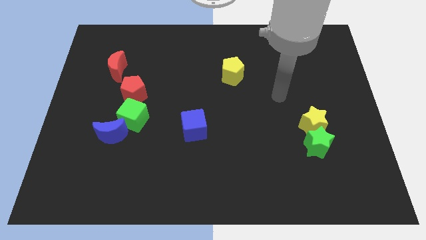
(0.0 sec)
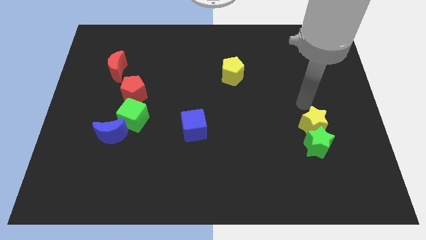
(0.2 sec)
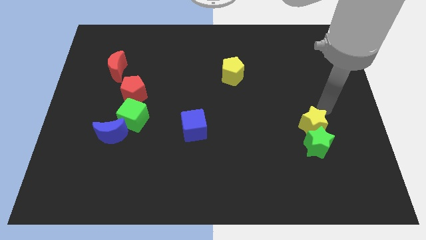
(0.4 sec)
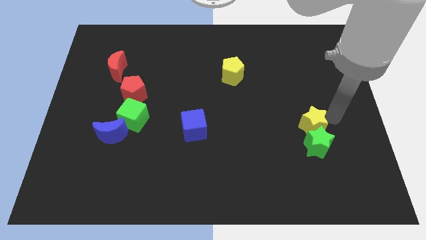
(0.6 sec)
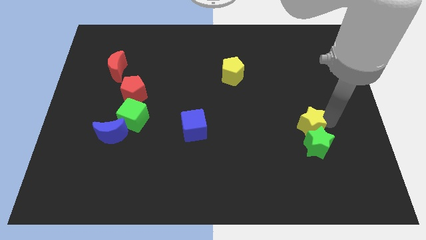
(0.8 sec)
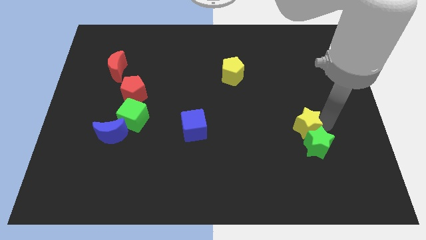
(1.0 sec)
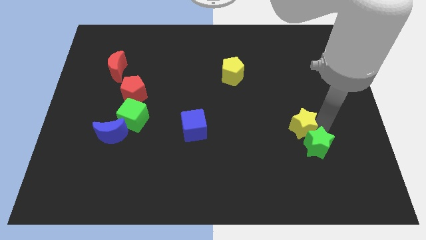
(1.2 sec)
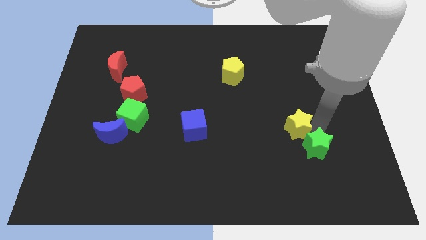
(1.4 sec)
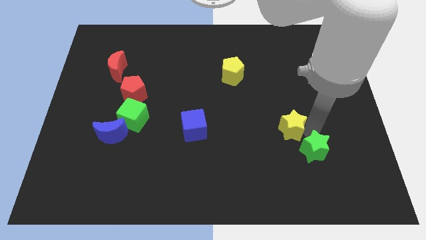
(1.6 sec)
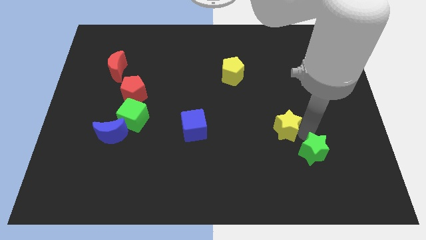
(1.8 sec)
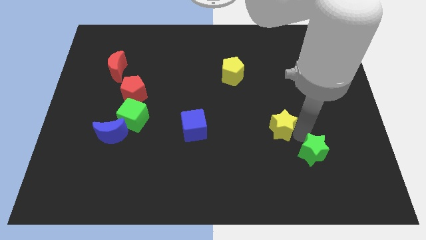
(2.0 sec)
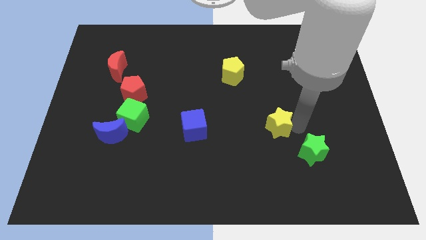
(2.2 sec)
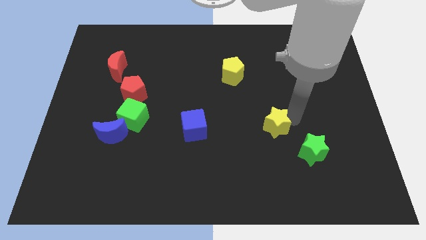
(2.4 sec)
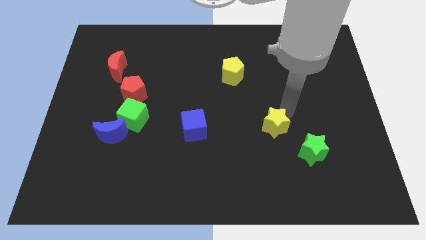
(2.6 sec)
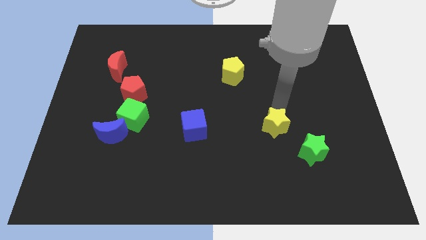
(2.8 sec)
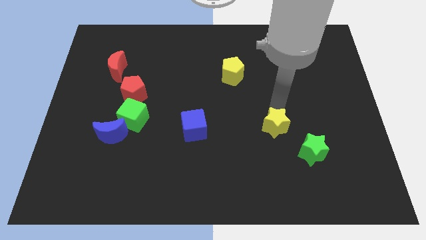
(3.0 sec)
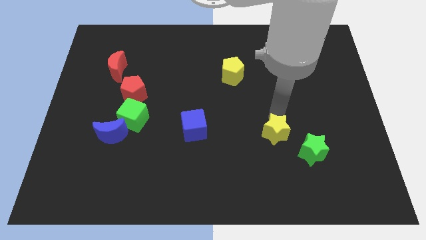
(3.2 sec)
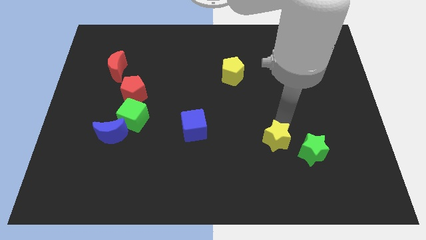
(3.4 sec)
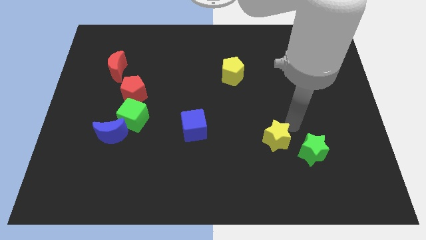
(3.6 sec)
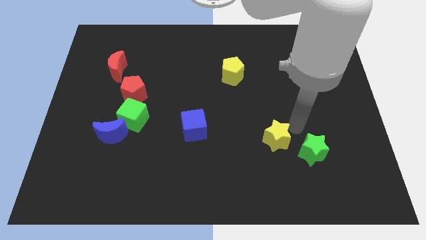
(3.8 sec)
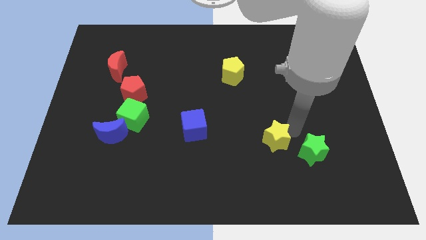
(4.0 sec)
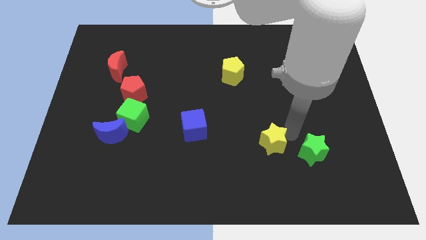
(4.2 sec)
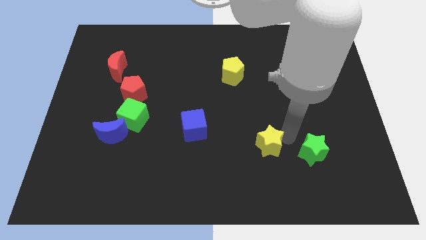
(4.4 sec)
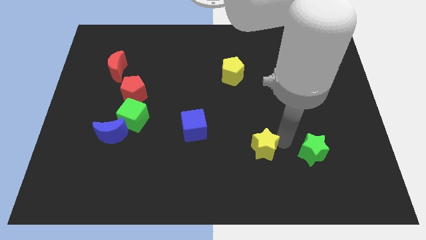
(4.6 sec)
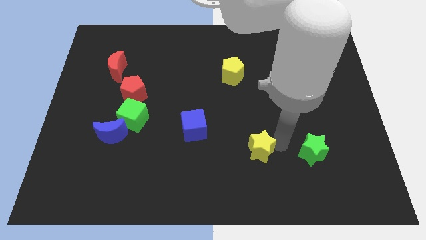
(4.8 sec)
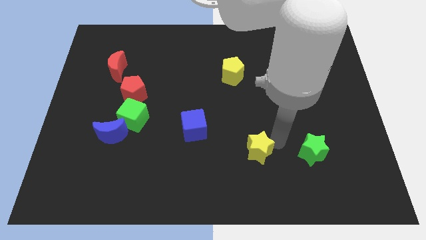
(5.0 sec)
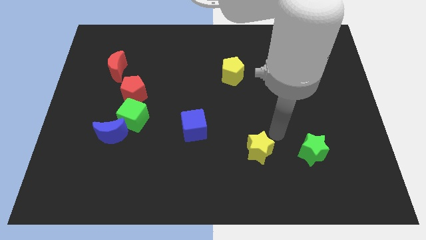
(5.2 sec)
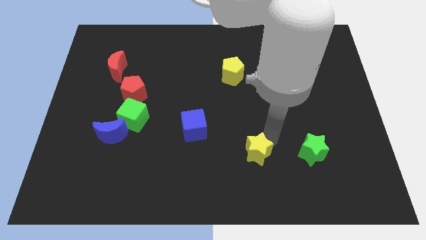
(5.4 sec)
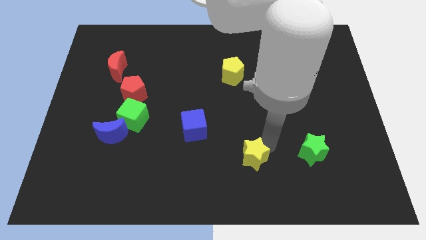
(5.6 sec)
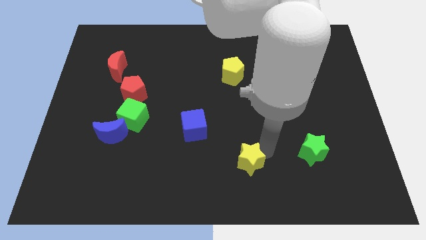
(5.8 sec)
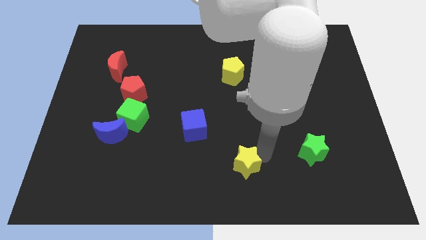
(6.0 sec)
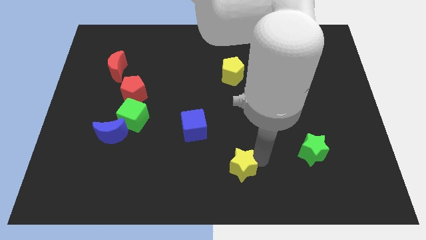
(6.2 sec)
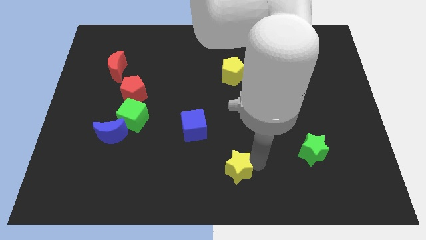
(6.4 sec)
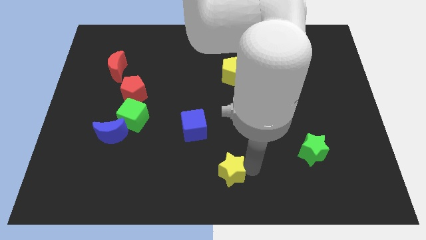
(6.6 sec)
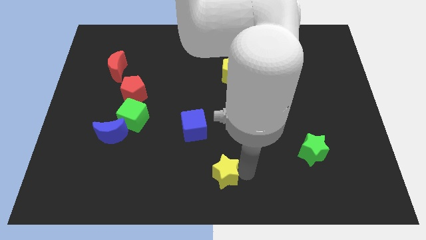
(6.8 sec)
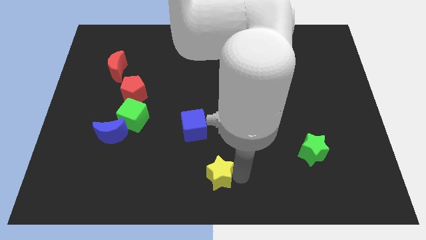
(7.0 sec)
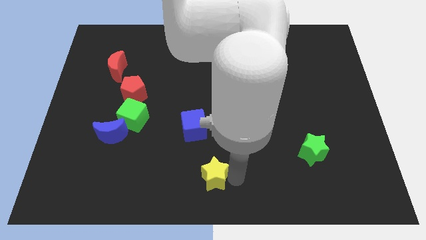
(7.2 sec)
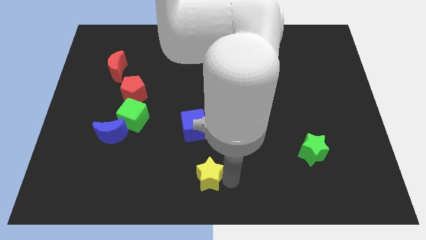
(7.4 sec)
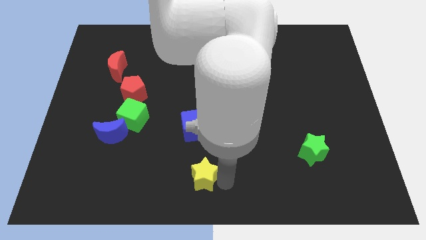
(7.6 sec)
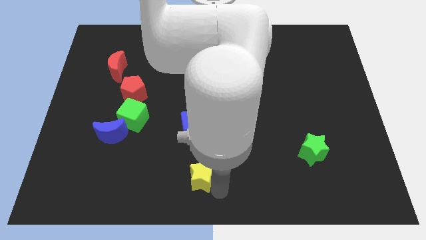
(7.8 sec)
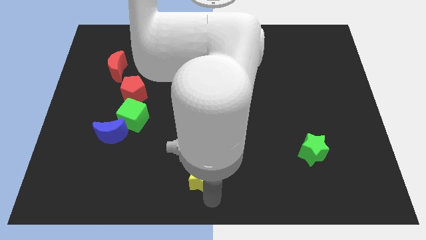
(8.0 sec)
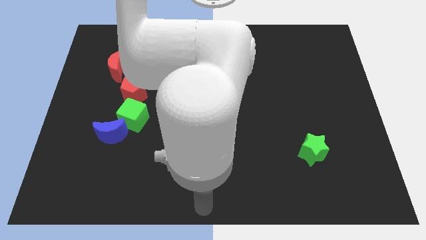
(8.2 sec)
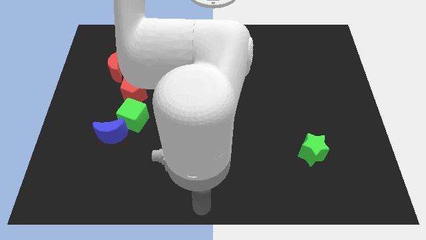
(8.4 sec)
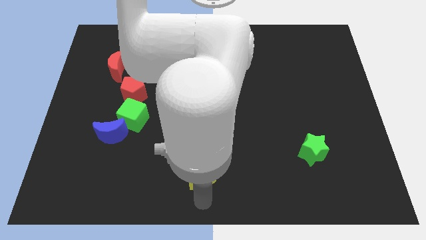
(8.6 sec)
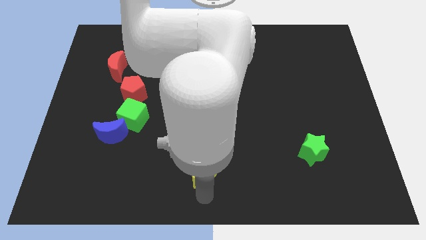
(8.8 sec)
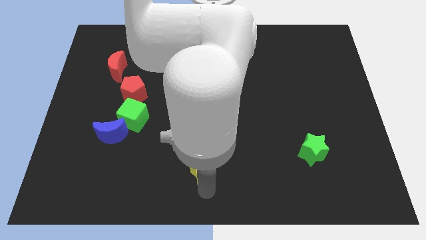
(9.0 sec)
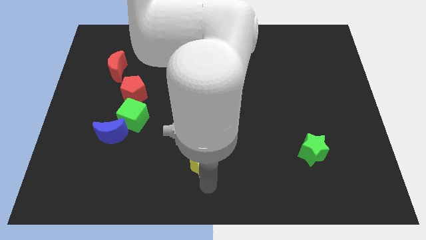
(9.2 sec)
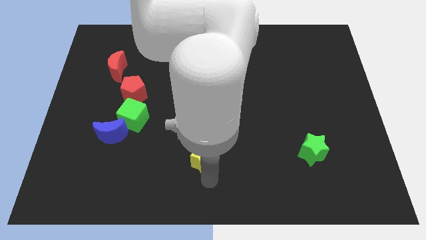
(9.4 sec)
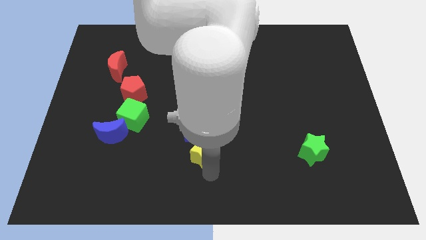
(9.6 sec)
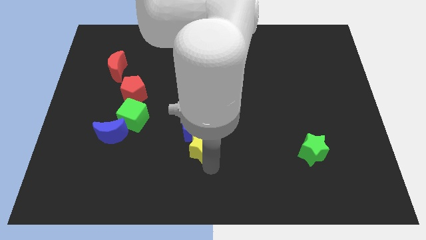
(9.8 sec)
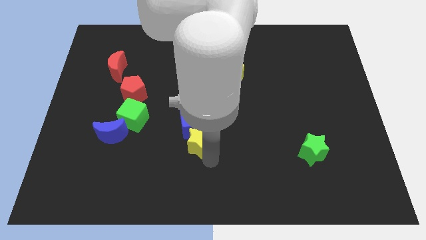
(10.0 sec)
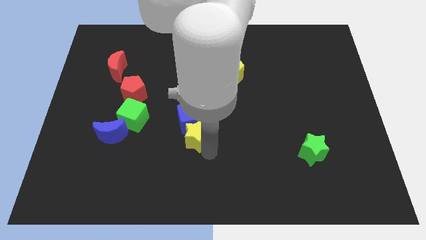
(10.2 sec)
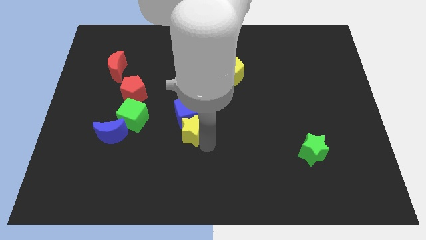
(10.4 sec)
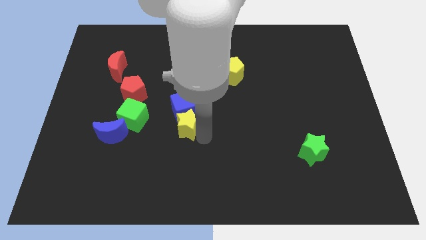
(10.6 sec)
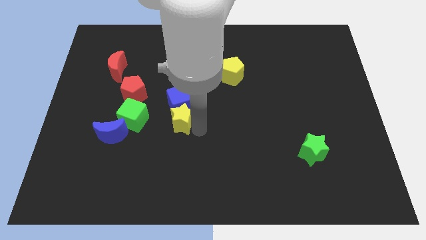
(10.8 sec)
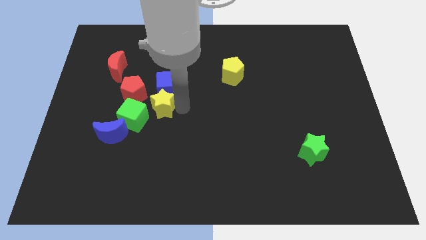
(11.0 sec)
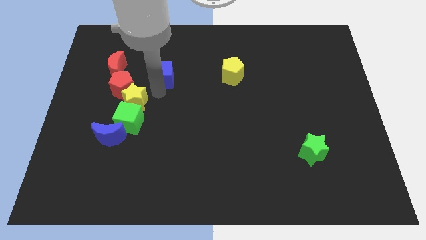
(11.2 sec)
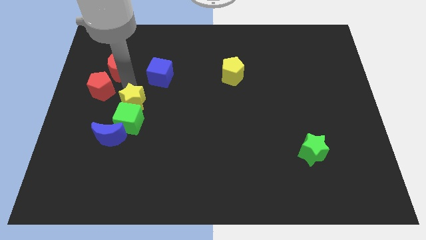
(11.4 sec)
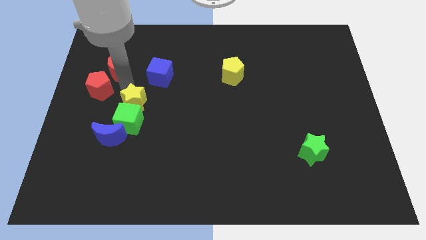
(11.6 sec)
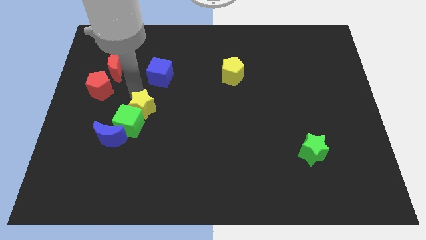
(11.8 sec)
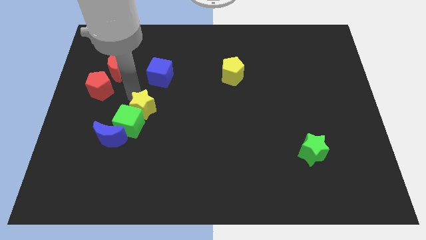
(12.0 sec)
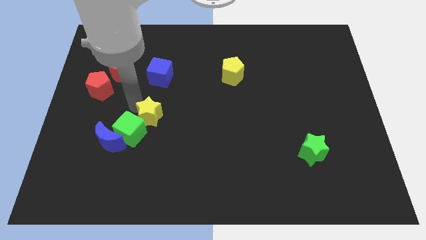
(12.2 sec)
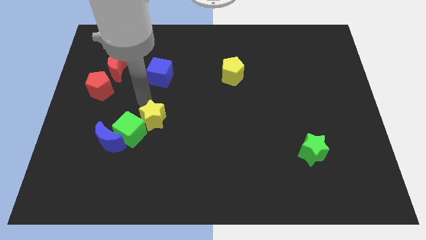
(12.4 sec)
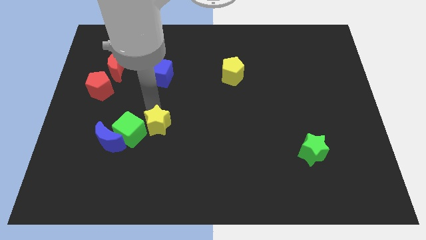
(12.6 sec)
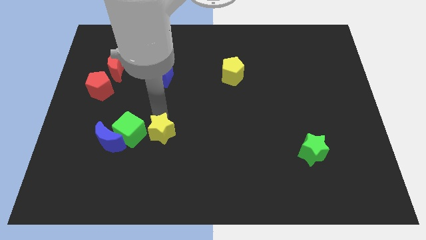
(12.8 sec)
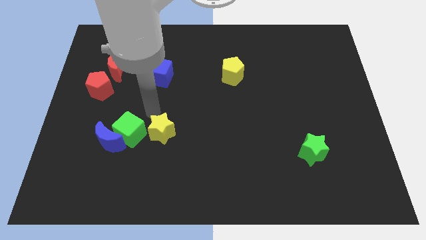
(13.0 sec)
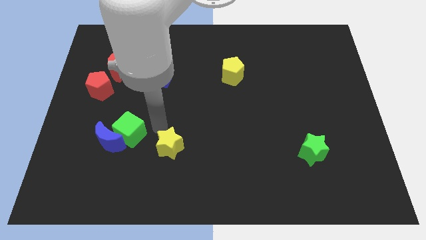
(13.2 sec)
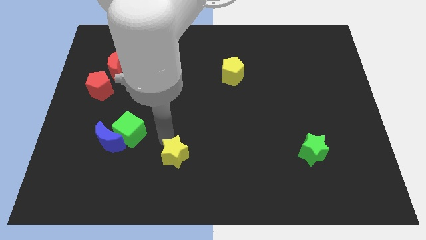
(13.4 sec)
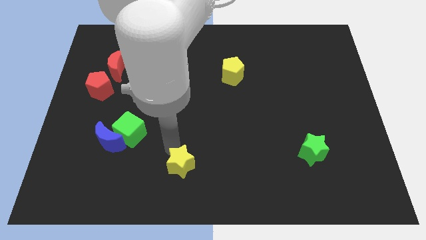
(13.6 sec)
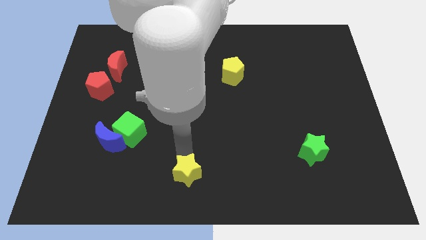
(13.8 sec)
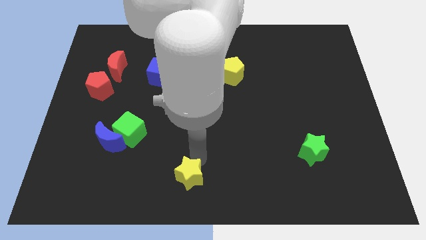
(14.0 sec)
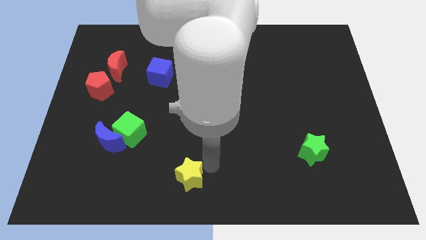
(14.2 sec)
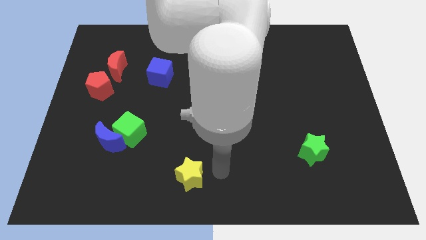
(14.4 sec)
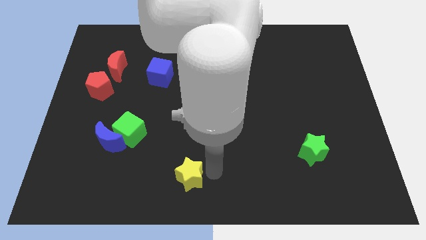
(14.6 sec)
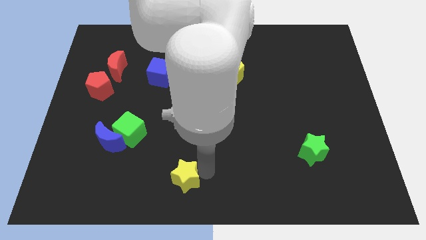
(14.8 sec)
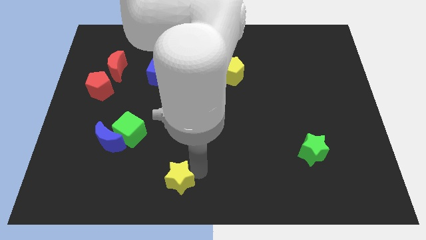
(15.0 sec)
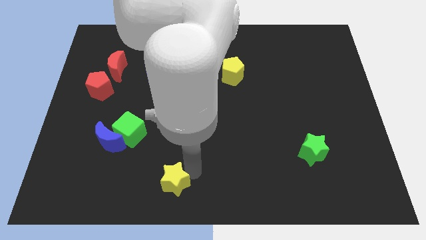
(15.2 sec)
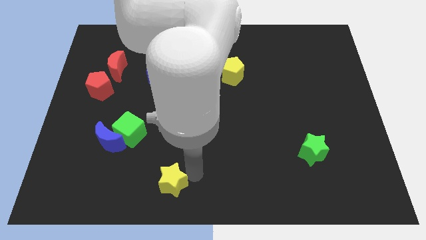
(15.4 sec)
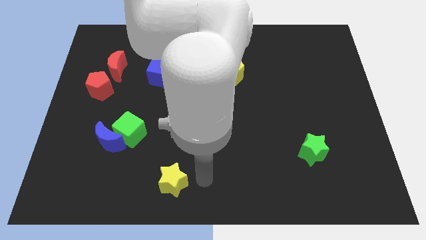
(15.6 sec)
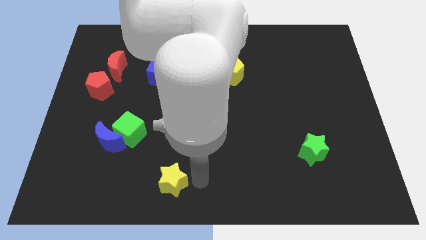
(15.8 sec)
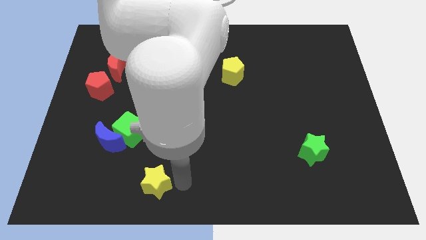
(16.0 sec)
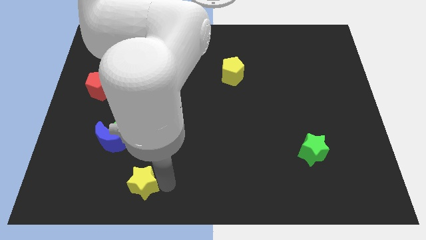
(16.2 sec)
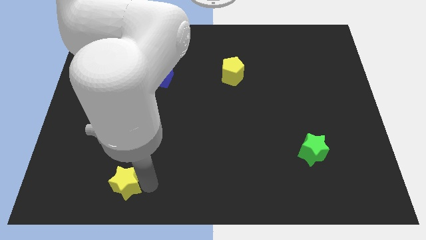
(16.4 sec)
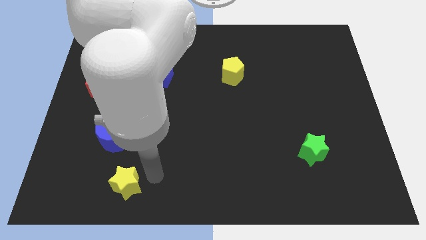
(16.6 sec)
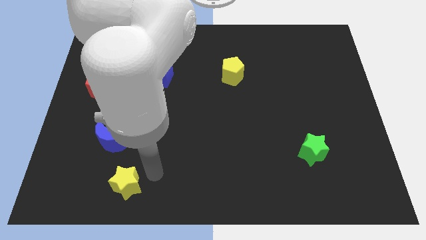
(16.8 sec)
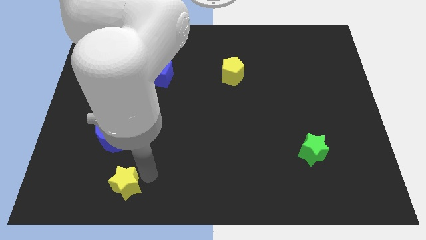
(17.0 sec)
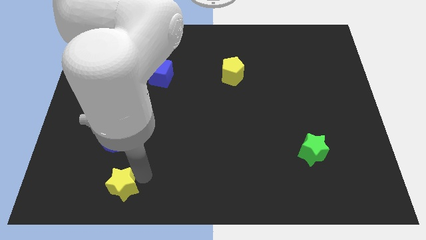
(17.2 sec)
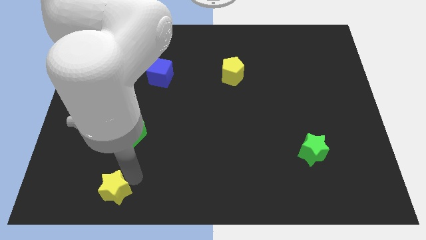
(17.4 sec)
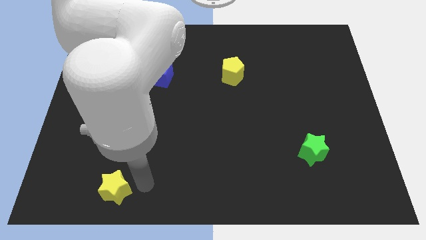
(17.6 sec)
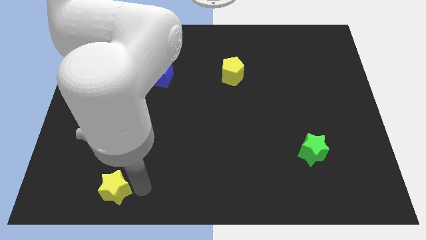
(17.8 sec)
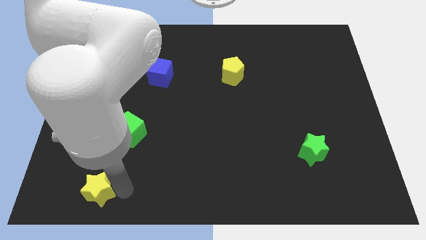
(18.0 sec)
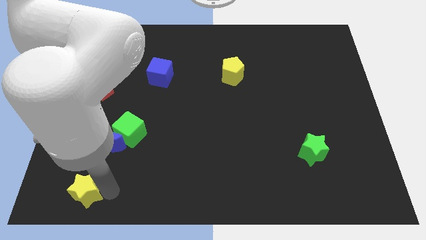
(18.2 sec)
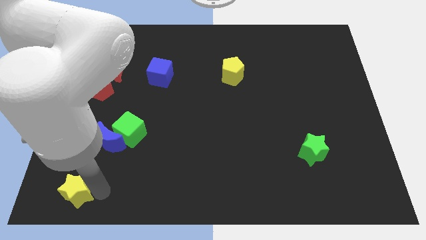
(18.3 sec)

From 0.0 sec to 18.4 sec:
put the yellow star to the lower left corner
